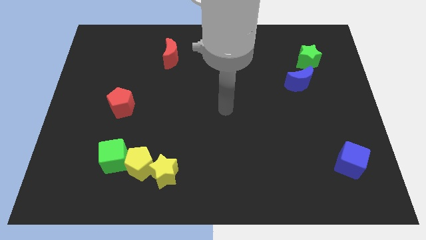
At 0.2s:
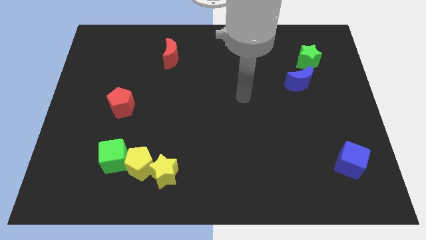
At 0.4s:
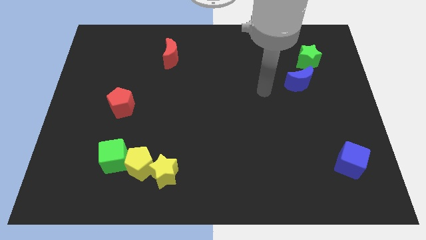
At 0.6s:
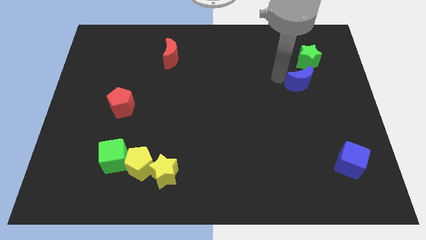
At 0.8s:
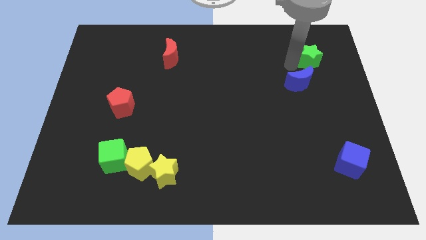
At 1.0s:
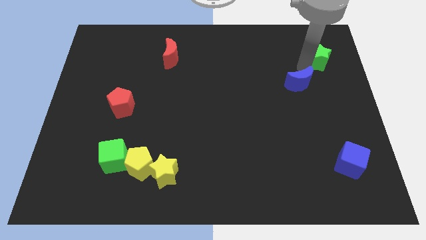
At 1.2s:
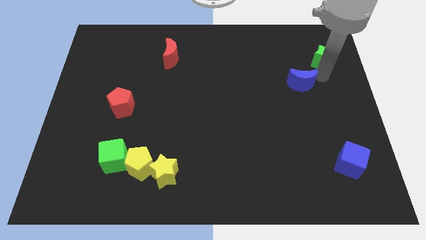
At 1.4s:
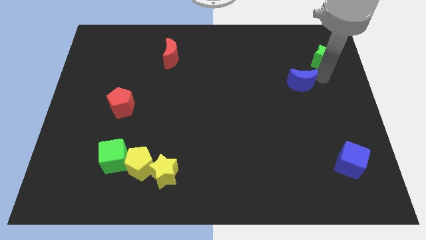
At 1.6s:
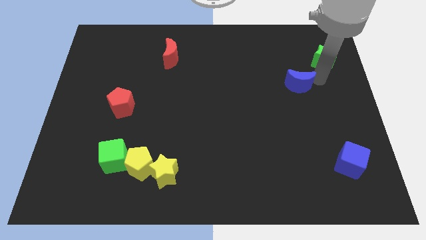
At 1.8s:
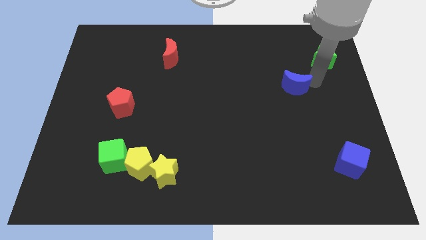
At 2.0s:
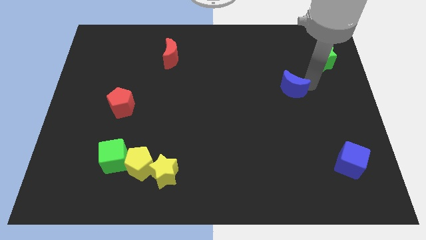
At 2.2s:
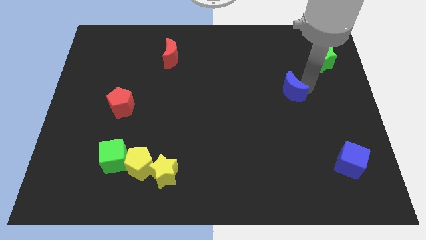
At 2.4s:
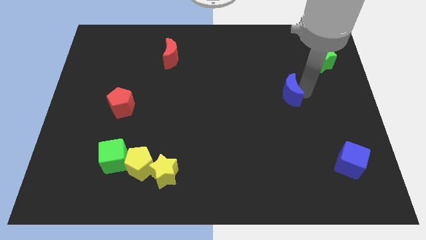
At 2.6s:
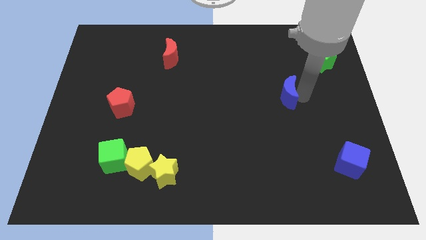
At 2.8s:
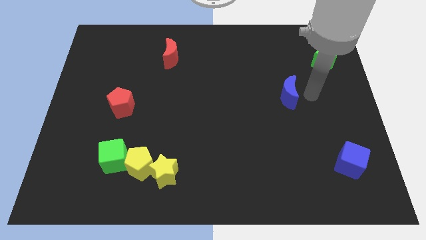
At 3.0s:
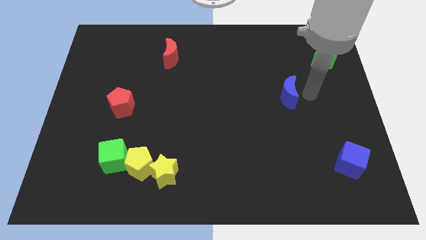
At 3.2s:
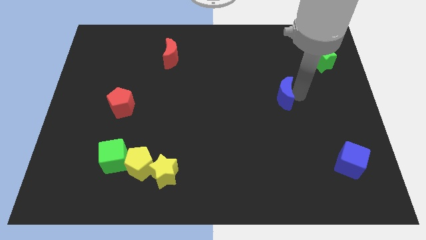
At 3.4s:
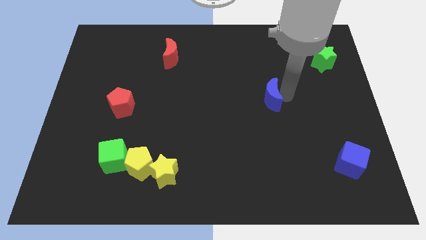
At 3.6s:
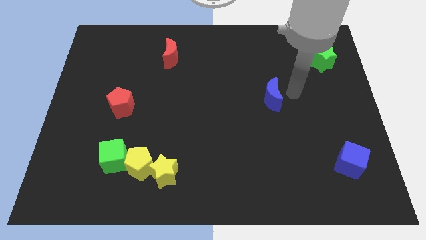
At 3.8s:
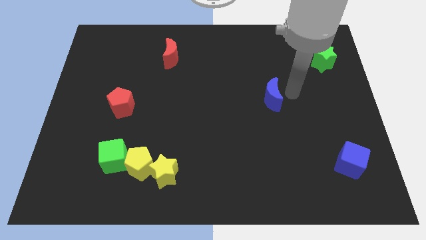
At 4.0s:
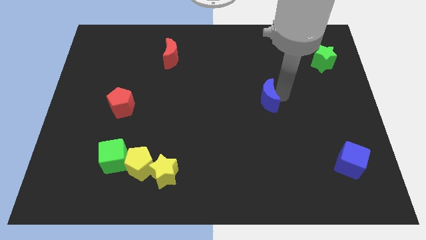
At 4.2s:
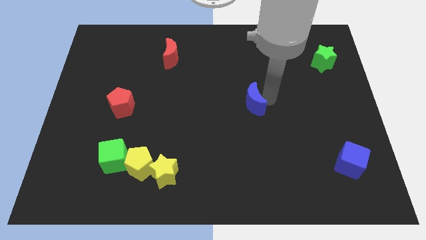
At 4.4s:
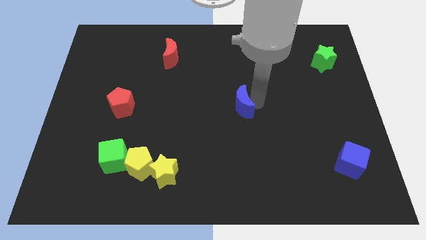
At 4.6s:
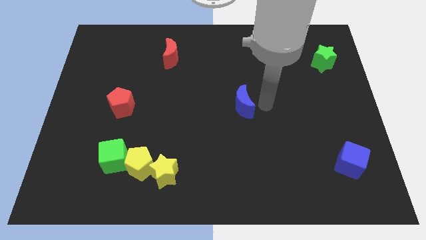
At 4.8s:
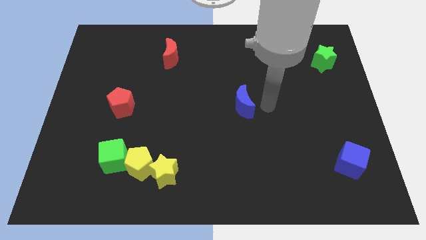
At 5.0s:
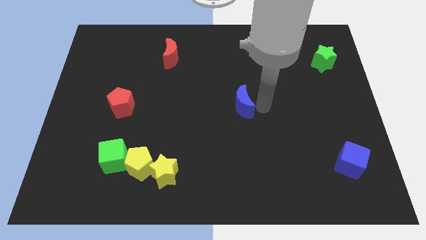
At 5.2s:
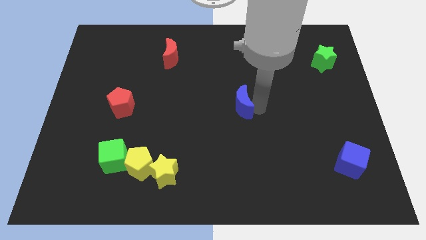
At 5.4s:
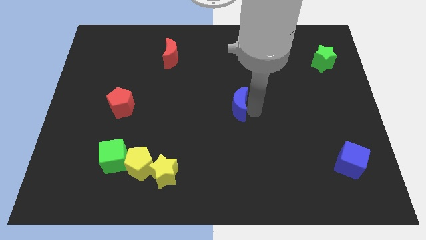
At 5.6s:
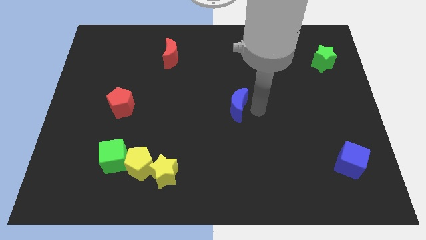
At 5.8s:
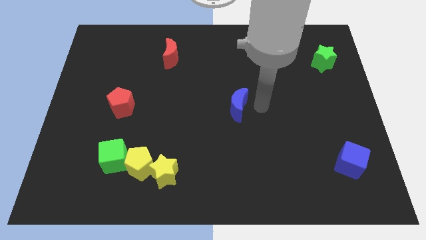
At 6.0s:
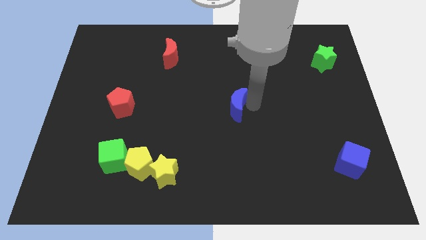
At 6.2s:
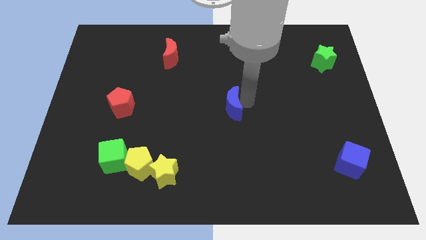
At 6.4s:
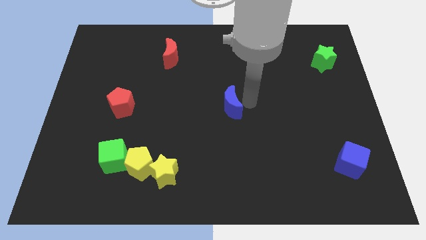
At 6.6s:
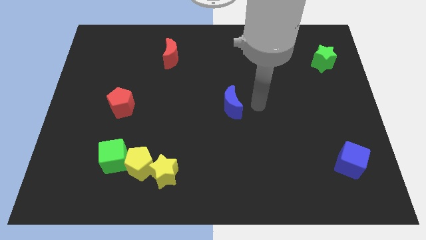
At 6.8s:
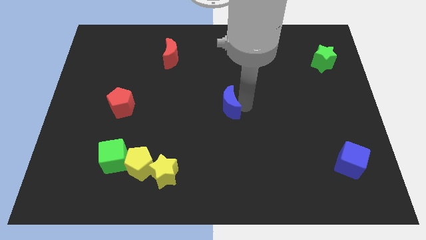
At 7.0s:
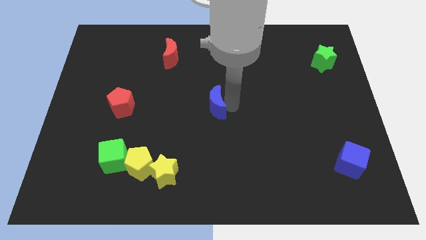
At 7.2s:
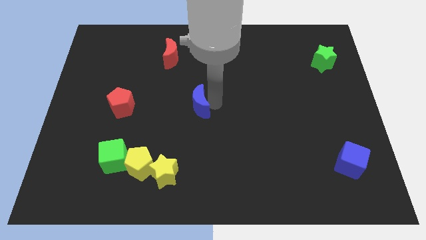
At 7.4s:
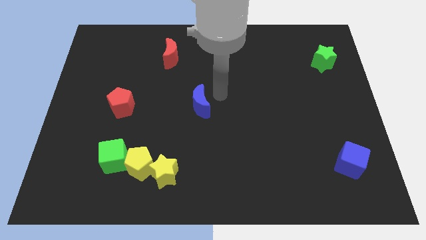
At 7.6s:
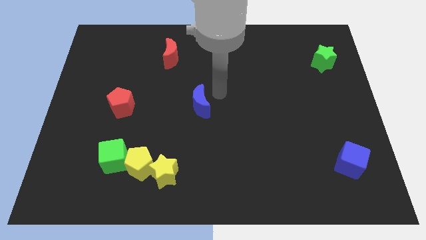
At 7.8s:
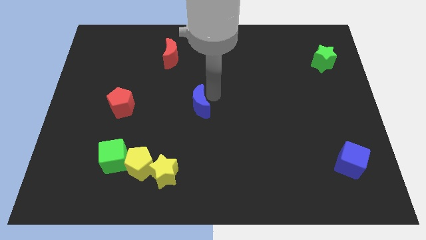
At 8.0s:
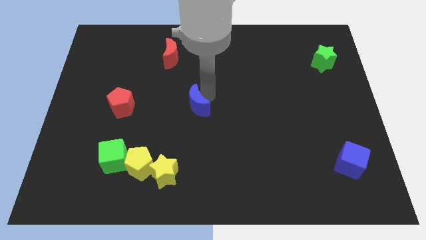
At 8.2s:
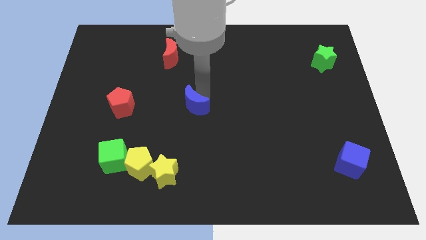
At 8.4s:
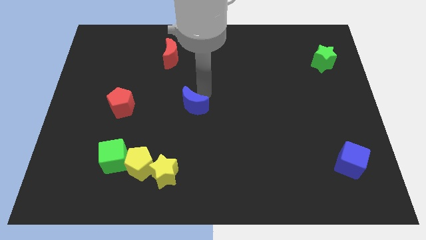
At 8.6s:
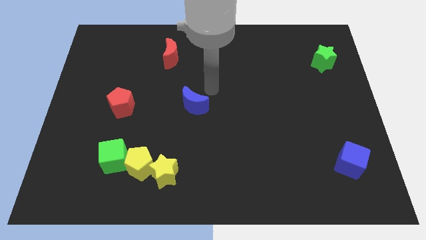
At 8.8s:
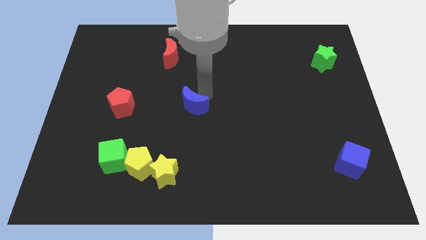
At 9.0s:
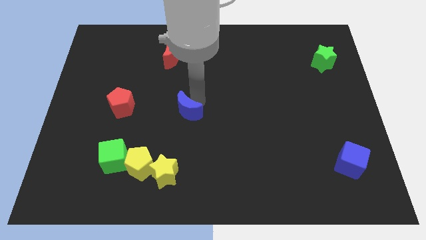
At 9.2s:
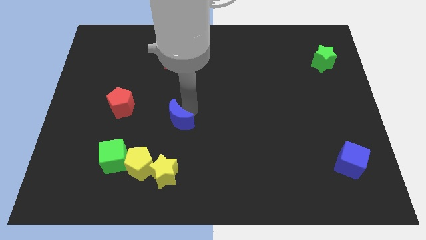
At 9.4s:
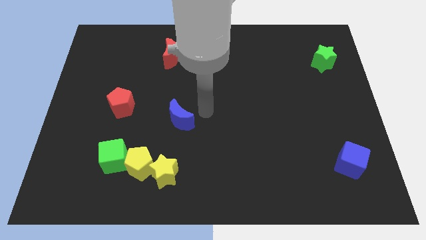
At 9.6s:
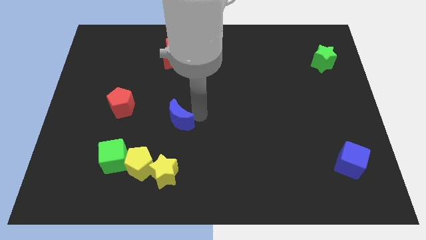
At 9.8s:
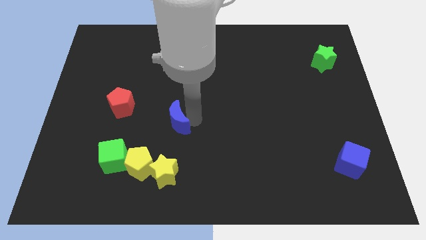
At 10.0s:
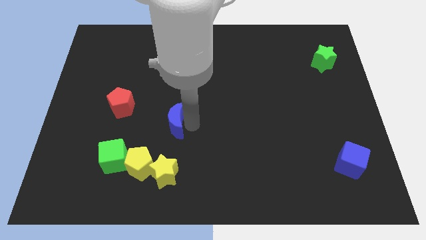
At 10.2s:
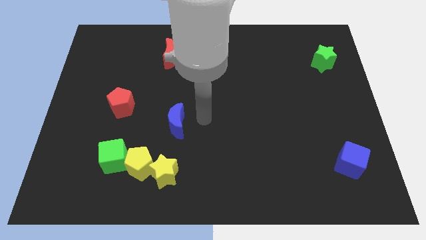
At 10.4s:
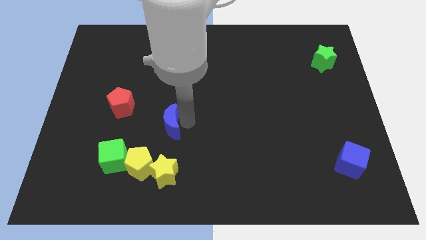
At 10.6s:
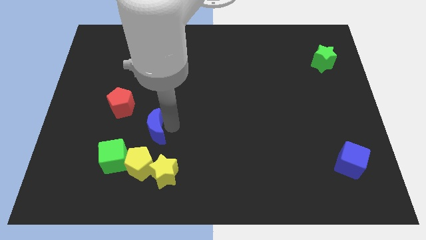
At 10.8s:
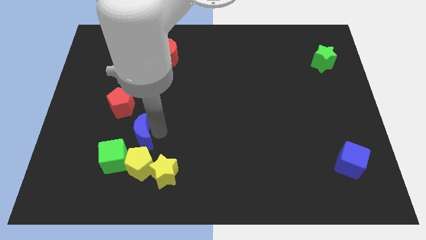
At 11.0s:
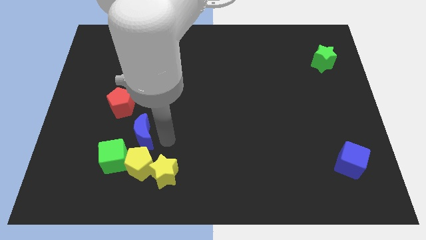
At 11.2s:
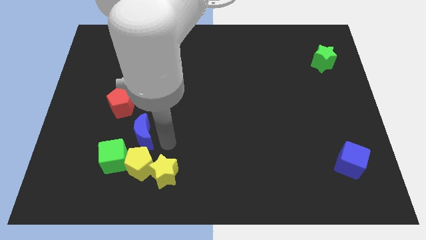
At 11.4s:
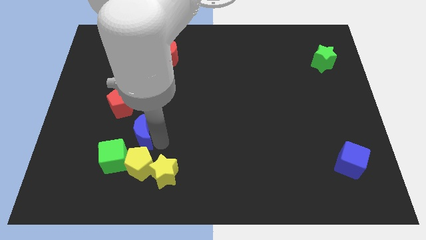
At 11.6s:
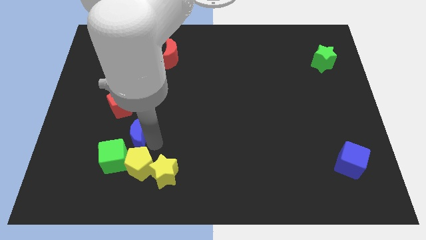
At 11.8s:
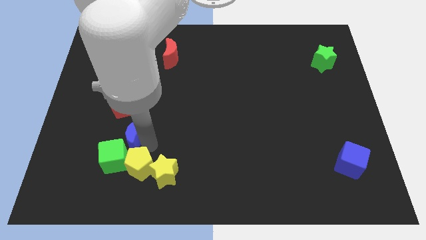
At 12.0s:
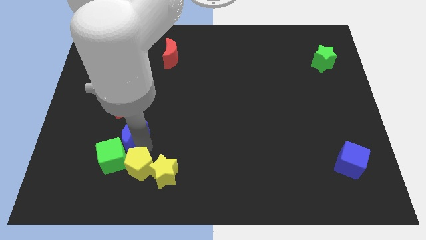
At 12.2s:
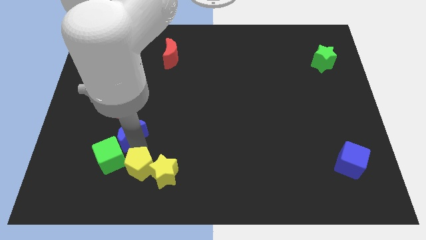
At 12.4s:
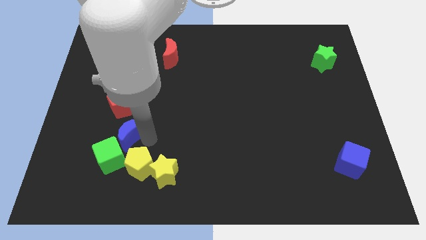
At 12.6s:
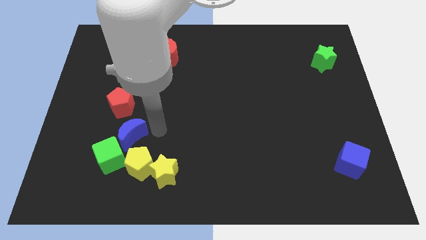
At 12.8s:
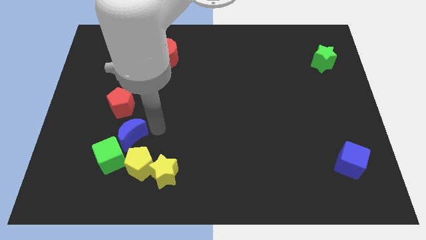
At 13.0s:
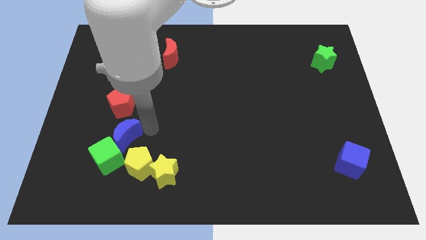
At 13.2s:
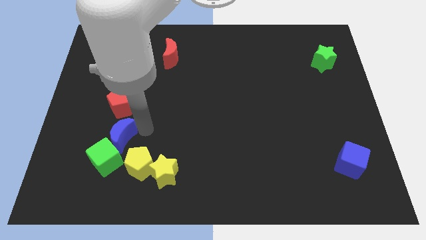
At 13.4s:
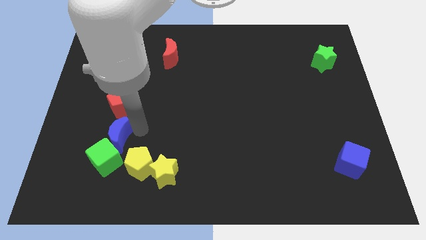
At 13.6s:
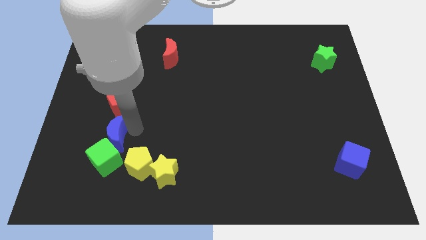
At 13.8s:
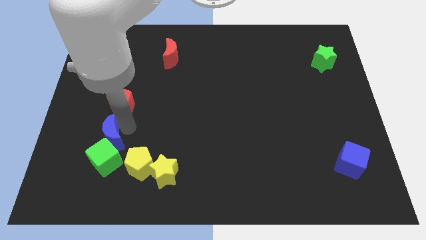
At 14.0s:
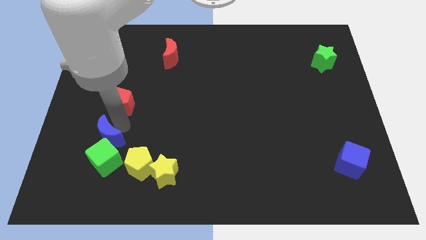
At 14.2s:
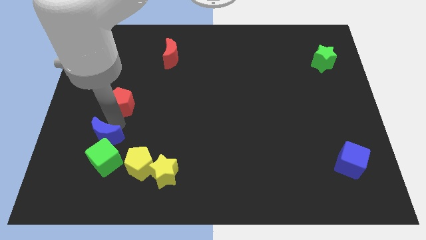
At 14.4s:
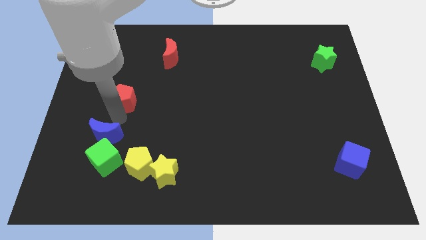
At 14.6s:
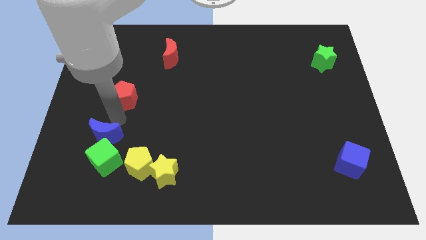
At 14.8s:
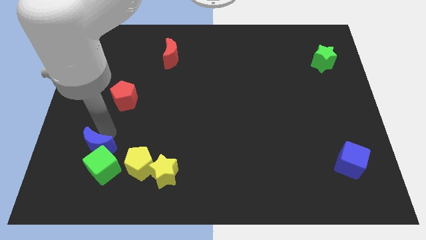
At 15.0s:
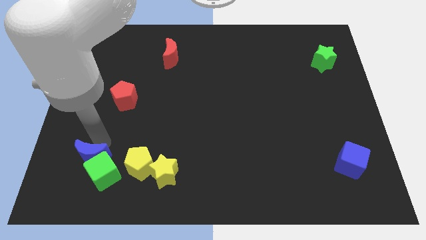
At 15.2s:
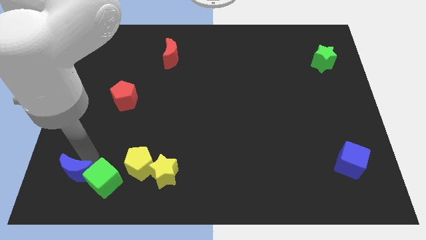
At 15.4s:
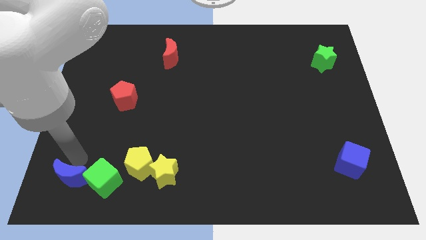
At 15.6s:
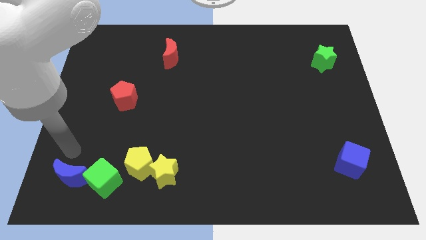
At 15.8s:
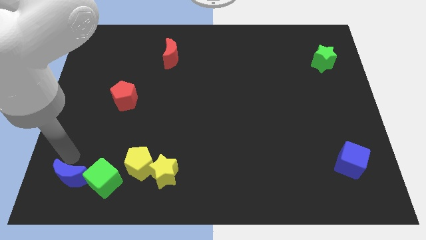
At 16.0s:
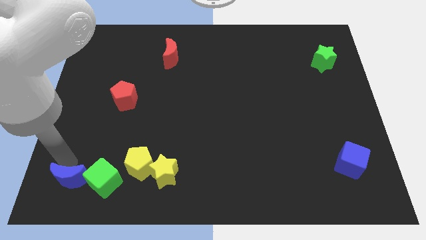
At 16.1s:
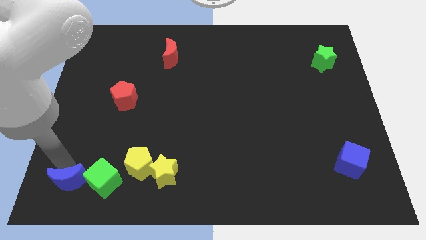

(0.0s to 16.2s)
slide the blue moon to the bottom left side of the green cube
